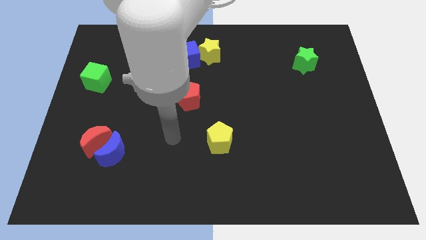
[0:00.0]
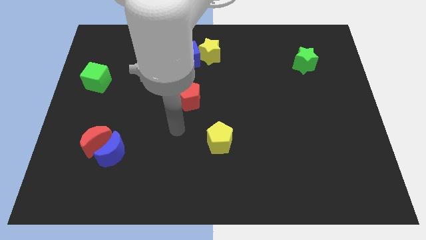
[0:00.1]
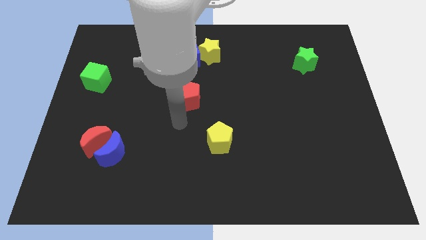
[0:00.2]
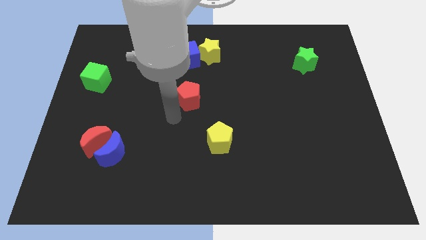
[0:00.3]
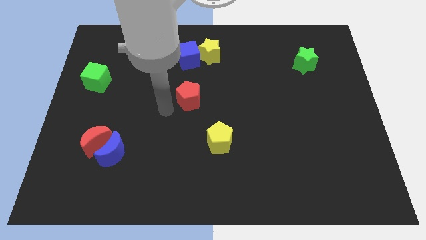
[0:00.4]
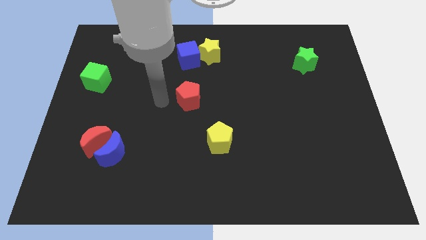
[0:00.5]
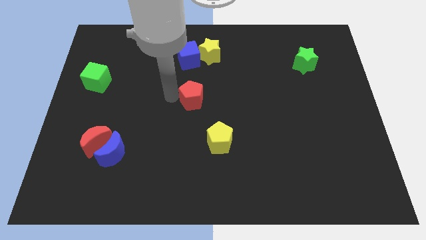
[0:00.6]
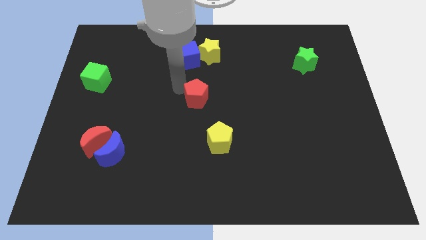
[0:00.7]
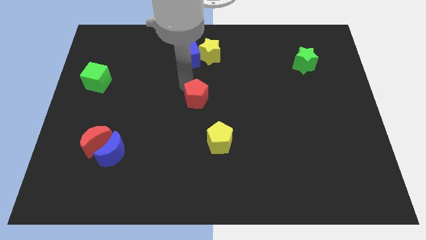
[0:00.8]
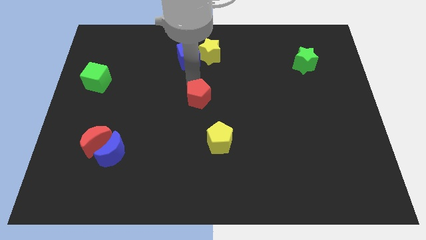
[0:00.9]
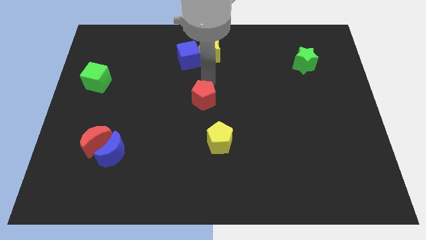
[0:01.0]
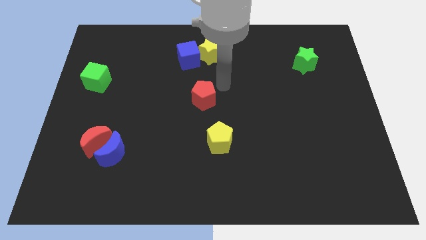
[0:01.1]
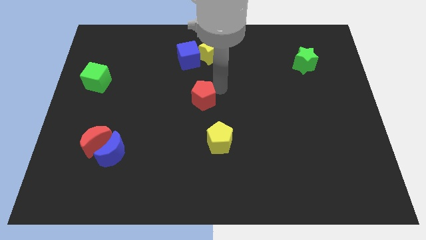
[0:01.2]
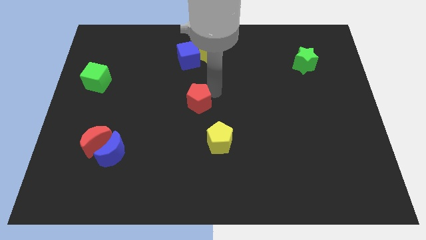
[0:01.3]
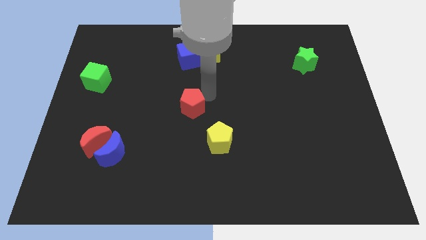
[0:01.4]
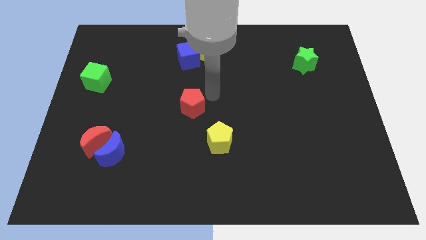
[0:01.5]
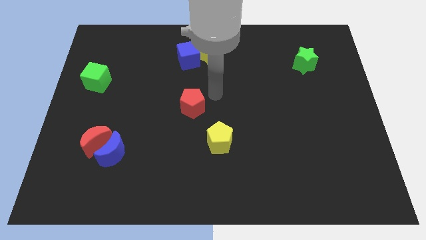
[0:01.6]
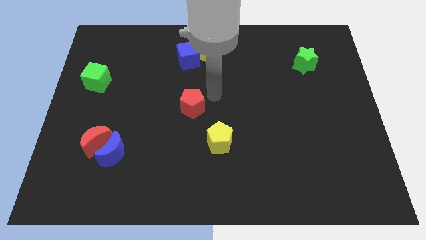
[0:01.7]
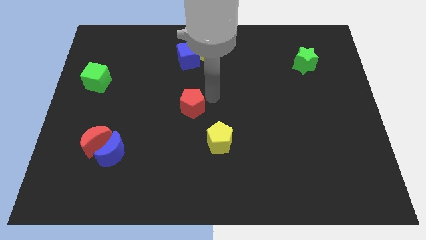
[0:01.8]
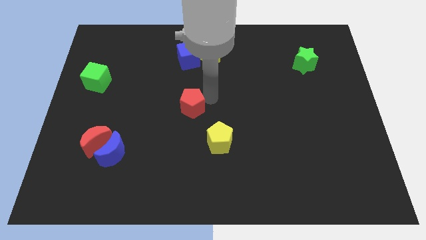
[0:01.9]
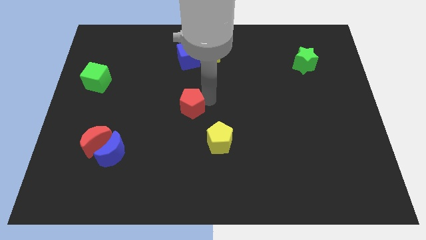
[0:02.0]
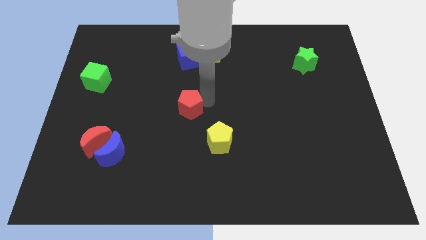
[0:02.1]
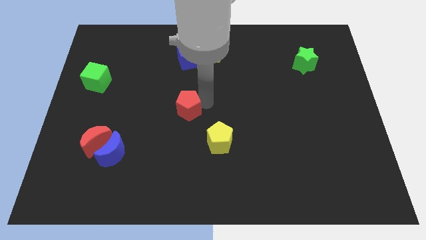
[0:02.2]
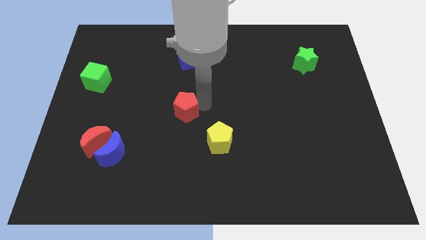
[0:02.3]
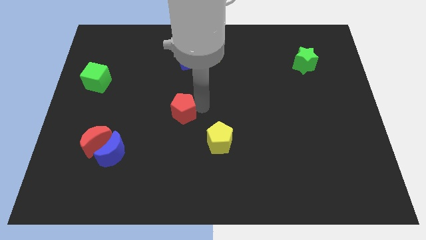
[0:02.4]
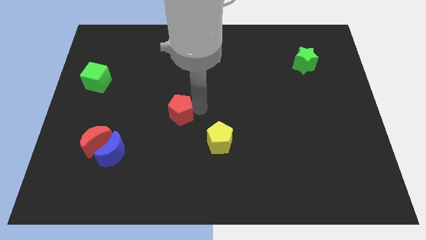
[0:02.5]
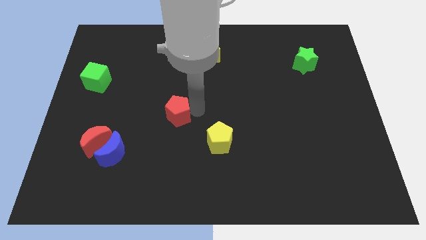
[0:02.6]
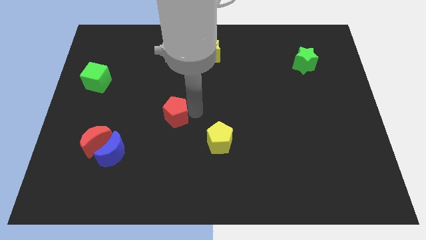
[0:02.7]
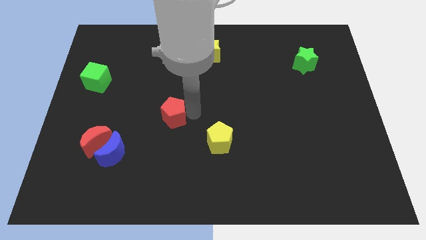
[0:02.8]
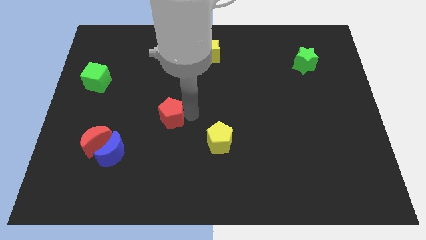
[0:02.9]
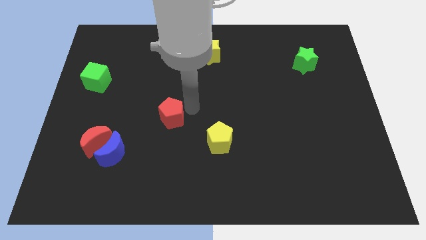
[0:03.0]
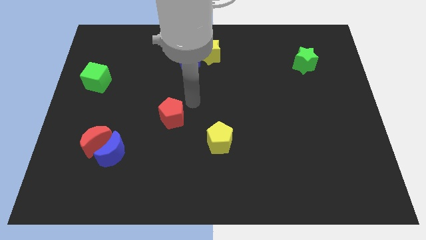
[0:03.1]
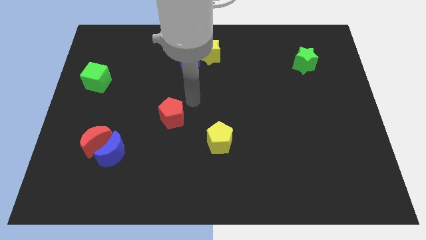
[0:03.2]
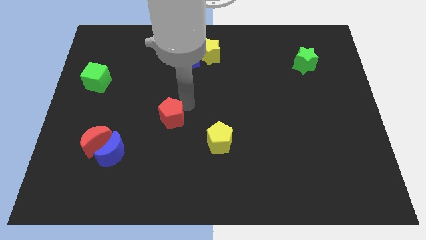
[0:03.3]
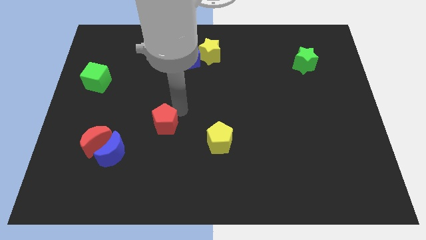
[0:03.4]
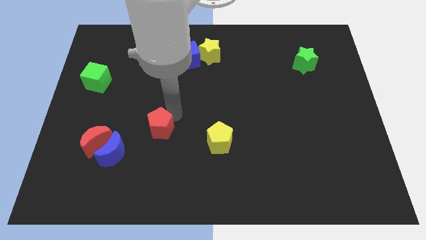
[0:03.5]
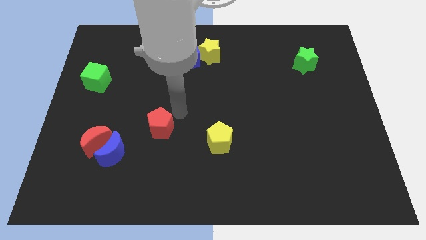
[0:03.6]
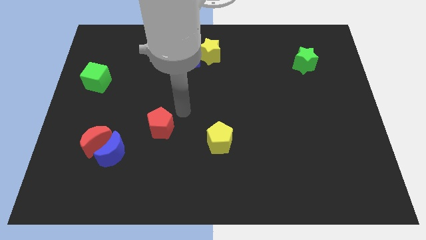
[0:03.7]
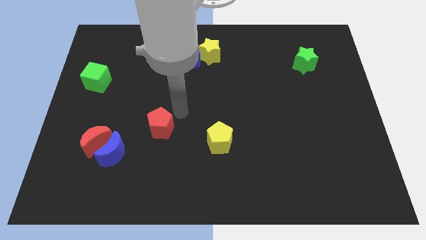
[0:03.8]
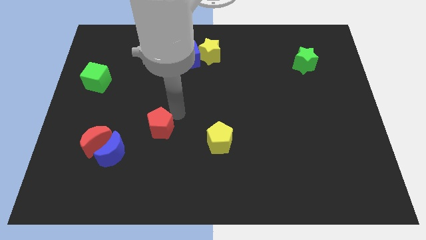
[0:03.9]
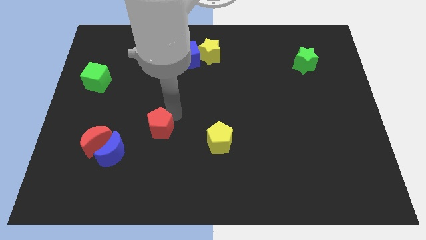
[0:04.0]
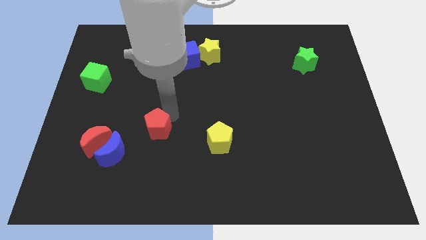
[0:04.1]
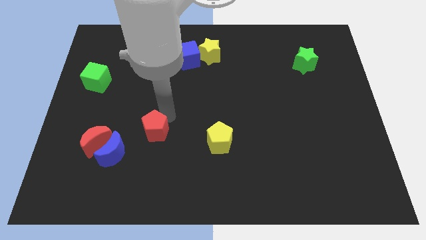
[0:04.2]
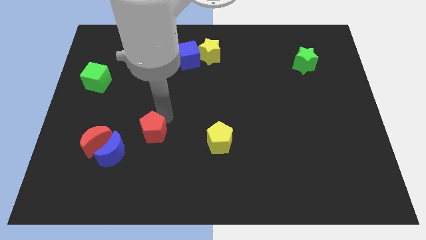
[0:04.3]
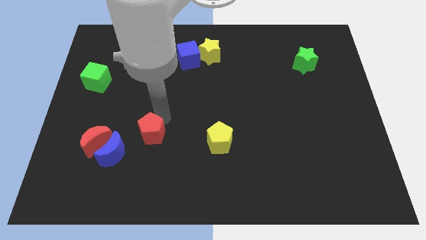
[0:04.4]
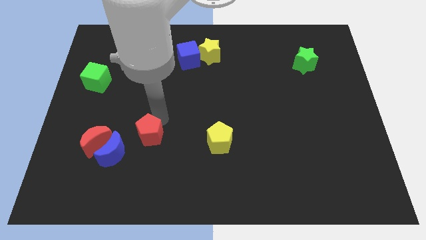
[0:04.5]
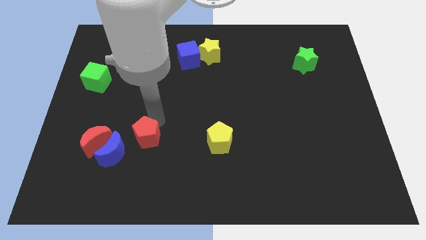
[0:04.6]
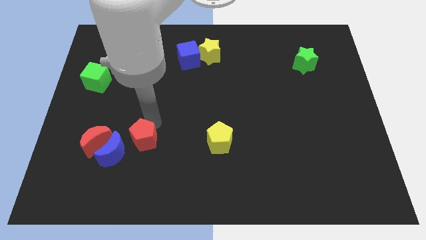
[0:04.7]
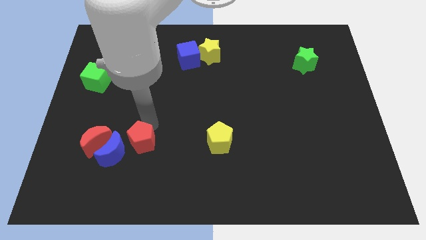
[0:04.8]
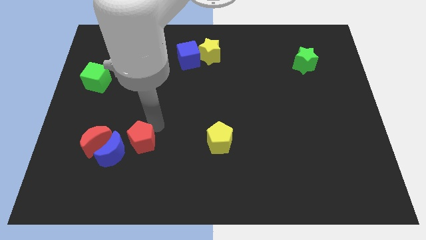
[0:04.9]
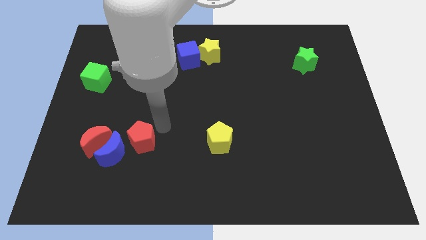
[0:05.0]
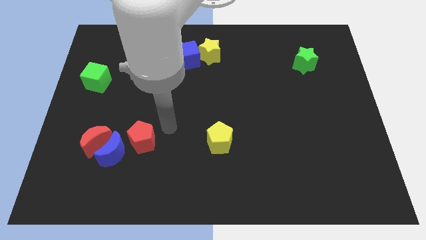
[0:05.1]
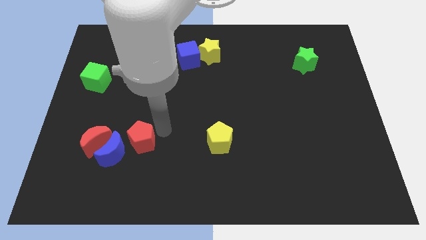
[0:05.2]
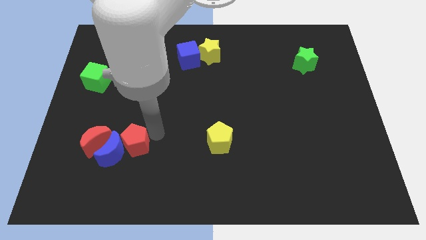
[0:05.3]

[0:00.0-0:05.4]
push the red pentagon towards the blue moon

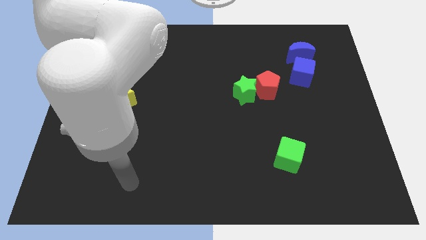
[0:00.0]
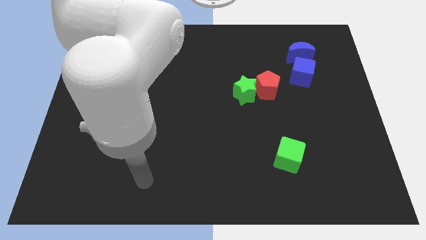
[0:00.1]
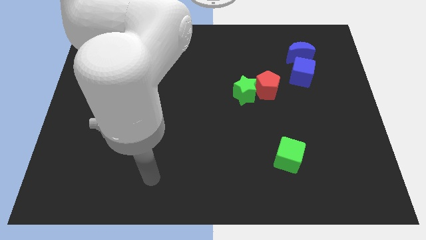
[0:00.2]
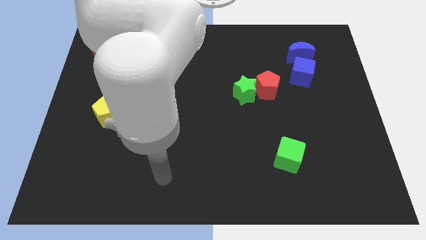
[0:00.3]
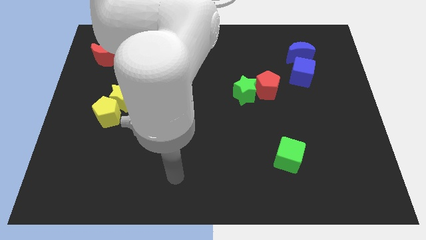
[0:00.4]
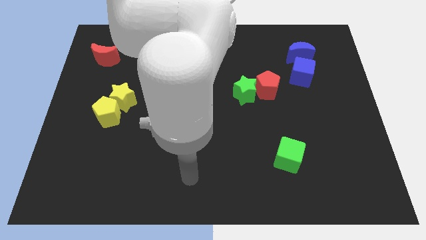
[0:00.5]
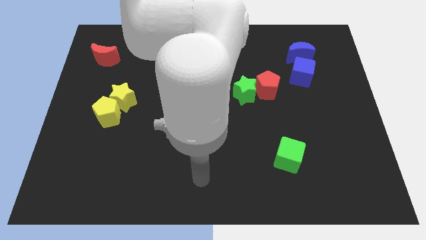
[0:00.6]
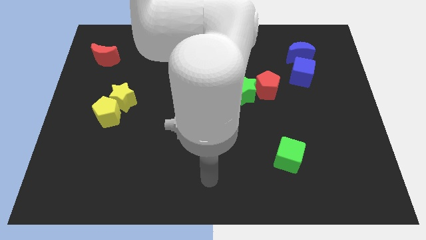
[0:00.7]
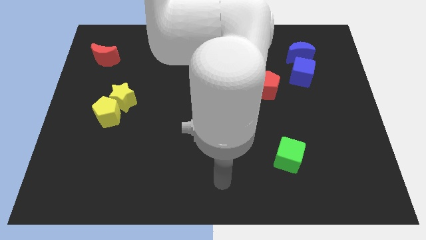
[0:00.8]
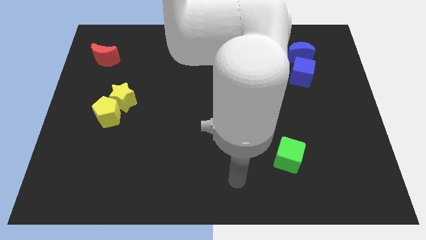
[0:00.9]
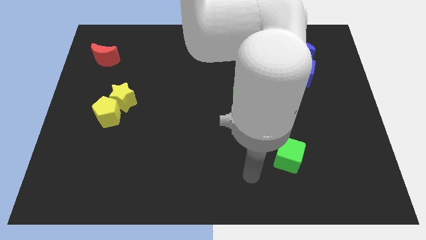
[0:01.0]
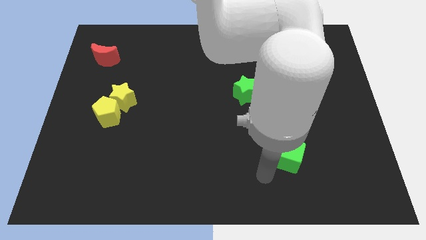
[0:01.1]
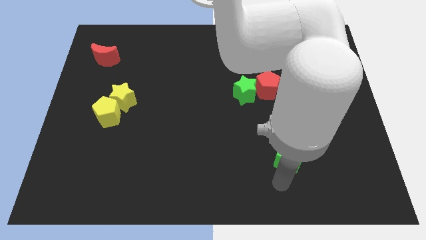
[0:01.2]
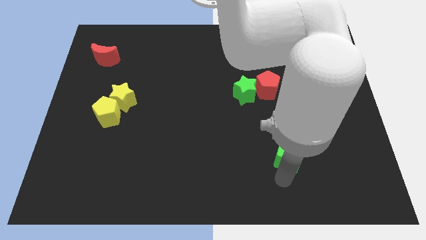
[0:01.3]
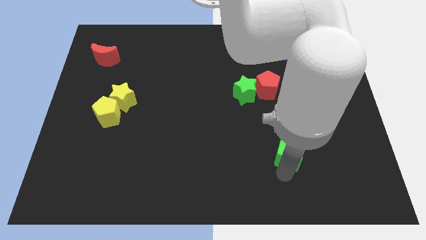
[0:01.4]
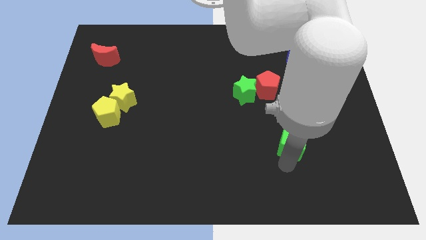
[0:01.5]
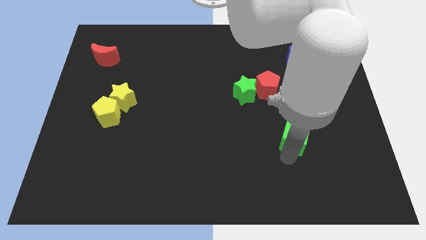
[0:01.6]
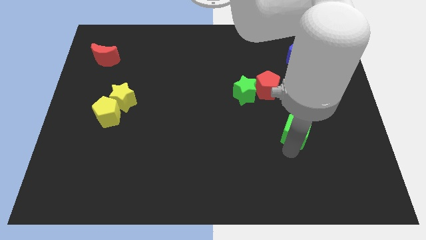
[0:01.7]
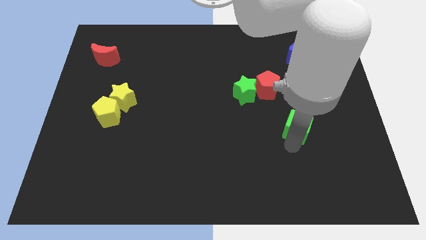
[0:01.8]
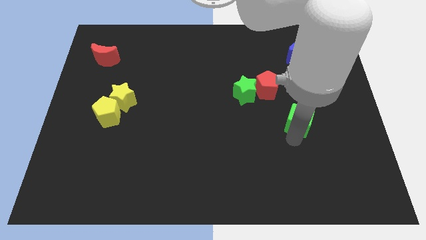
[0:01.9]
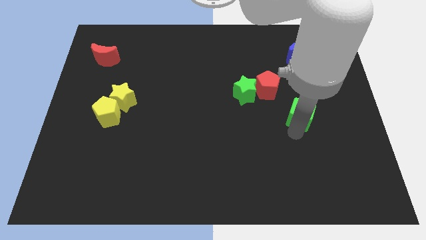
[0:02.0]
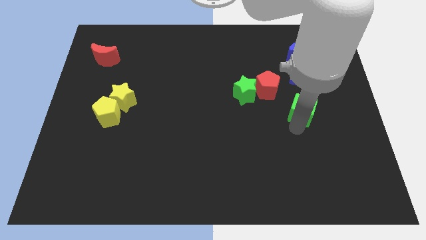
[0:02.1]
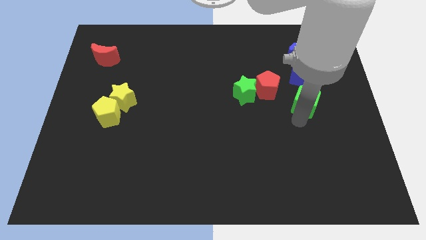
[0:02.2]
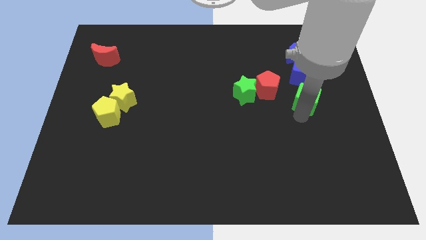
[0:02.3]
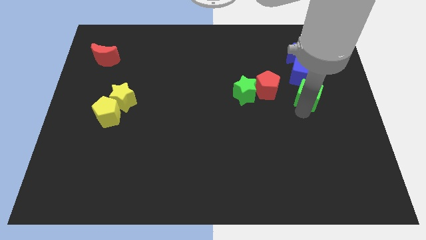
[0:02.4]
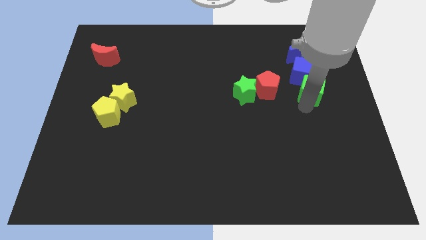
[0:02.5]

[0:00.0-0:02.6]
put the green cube close to the blue cube
